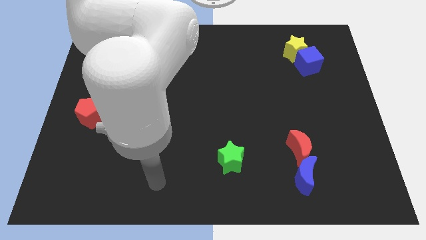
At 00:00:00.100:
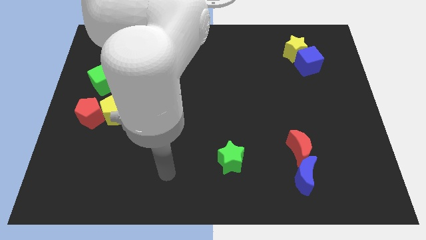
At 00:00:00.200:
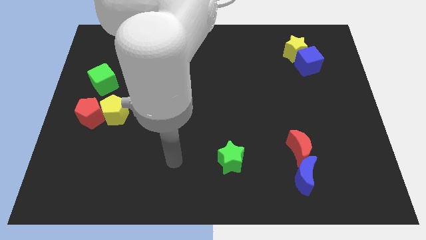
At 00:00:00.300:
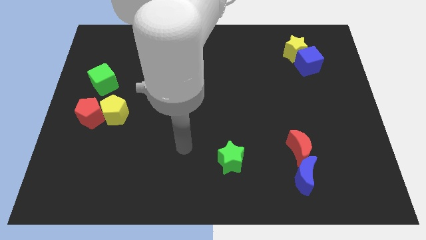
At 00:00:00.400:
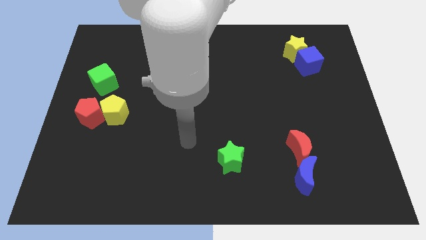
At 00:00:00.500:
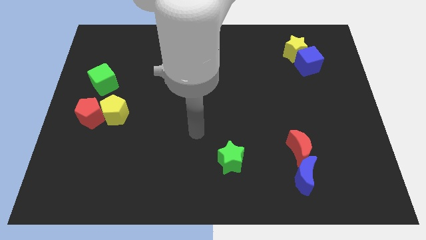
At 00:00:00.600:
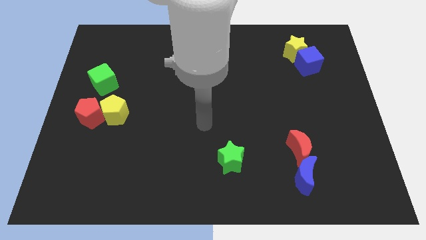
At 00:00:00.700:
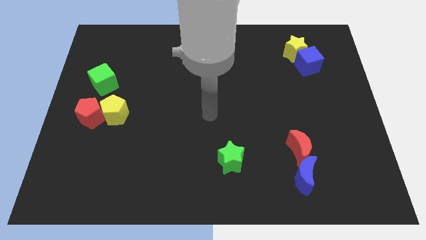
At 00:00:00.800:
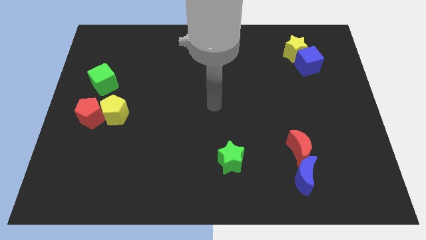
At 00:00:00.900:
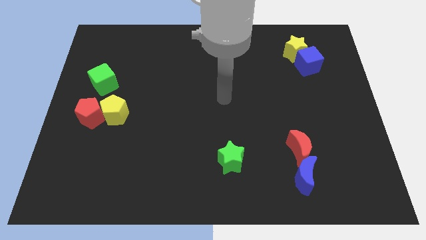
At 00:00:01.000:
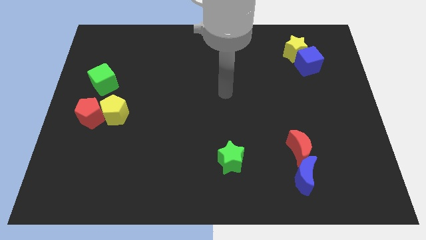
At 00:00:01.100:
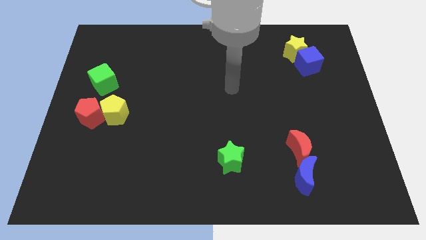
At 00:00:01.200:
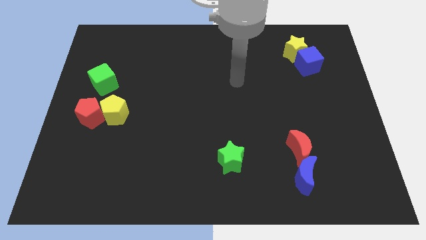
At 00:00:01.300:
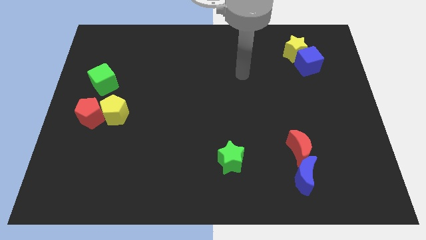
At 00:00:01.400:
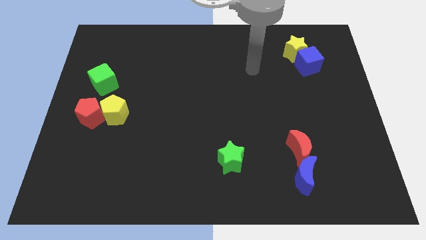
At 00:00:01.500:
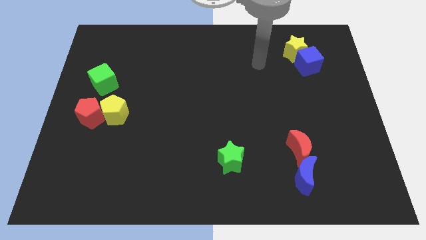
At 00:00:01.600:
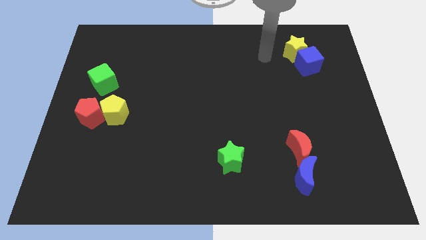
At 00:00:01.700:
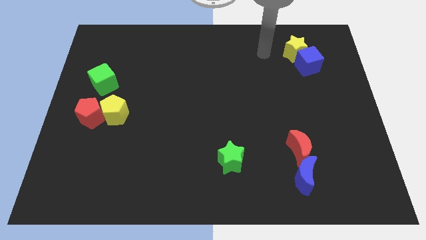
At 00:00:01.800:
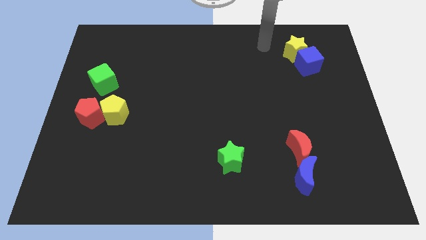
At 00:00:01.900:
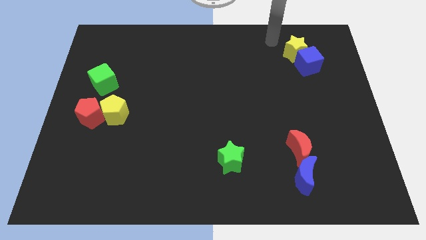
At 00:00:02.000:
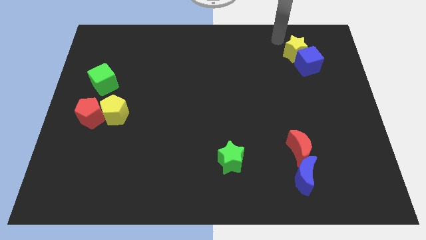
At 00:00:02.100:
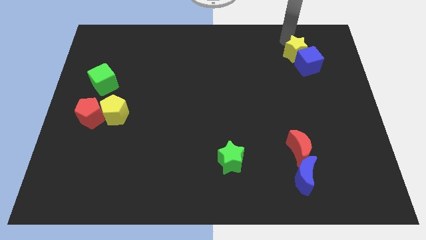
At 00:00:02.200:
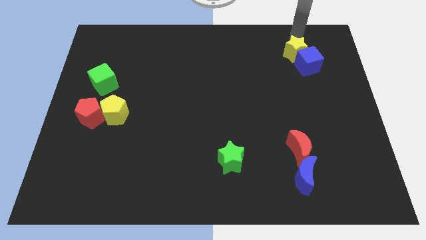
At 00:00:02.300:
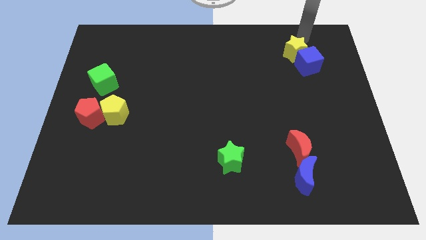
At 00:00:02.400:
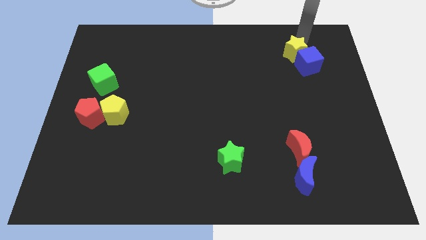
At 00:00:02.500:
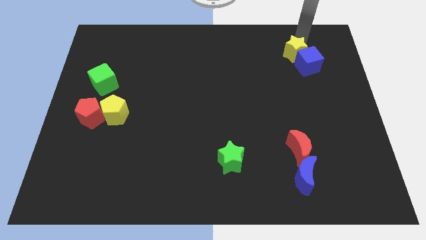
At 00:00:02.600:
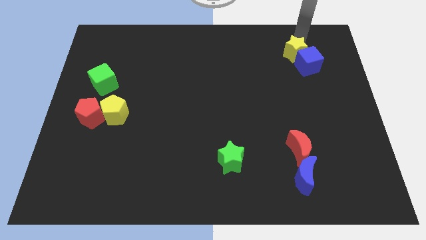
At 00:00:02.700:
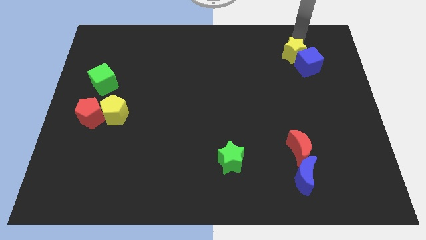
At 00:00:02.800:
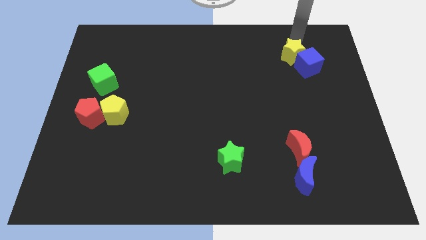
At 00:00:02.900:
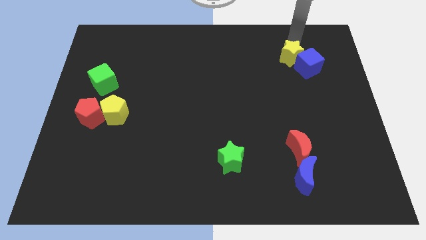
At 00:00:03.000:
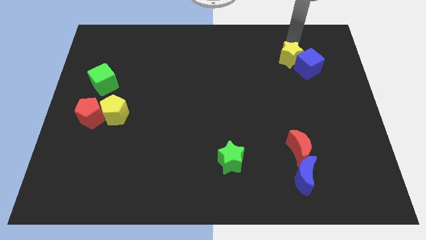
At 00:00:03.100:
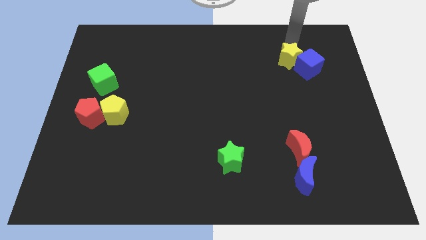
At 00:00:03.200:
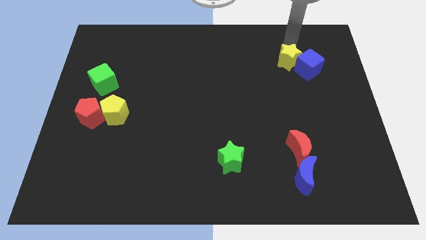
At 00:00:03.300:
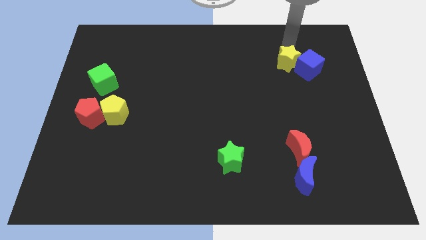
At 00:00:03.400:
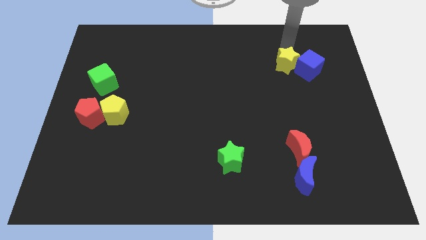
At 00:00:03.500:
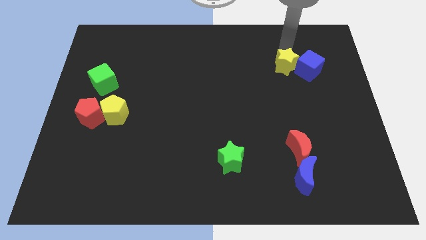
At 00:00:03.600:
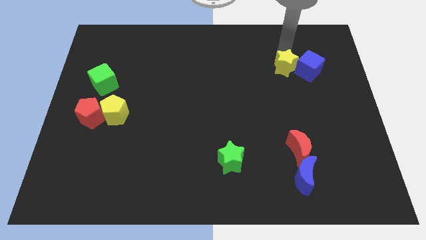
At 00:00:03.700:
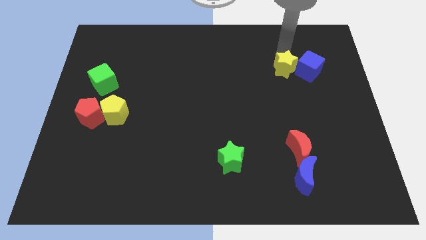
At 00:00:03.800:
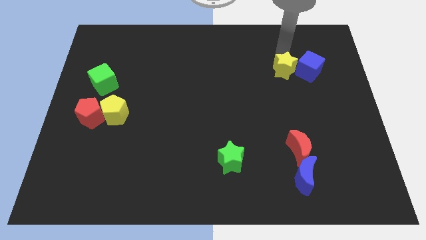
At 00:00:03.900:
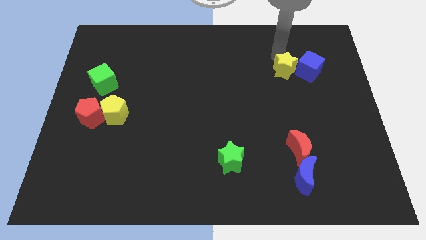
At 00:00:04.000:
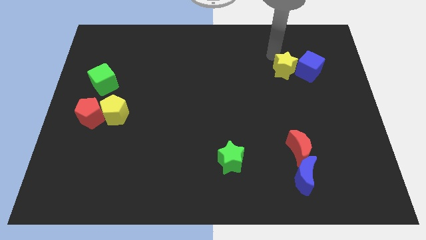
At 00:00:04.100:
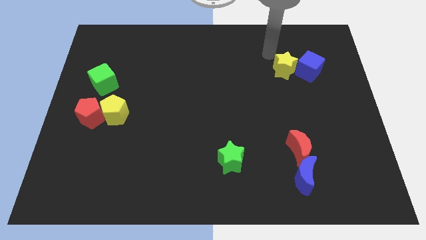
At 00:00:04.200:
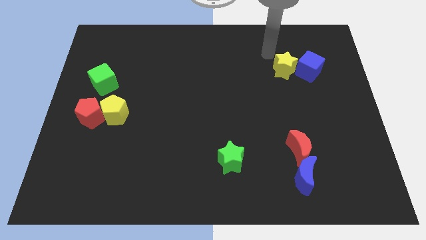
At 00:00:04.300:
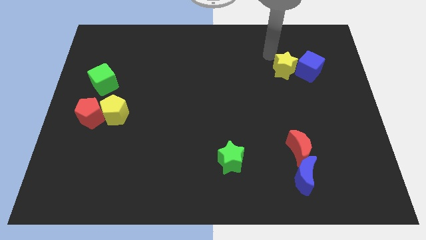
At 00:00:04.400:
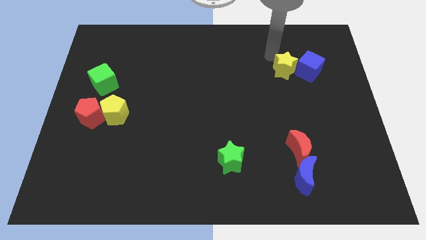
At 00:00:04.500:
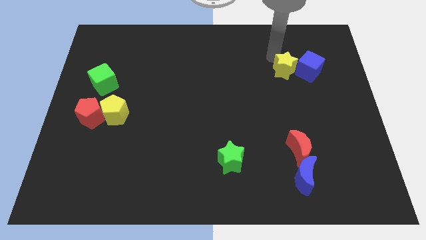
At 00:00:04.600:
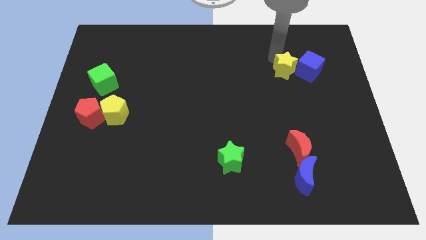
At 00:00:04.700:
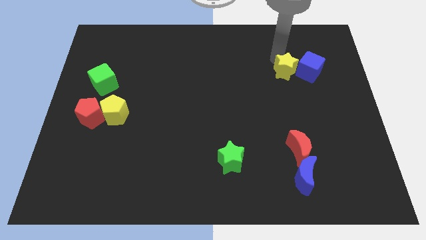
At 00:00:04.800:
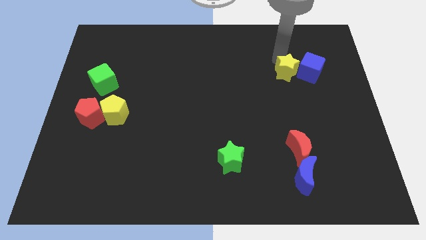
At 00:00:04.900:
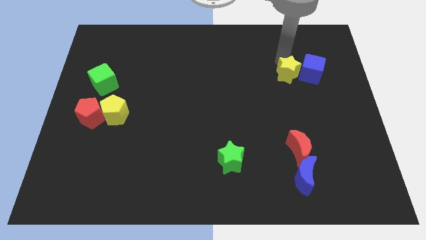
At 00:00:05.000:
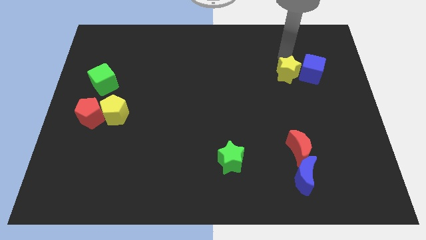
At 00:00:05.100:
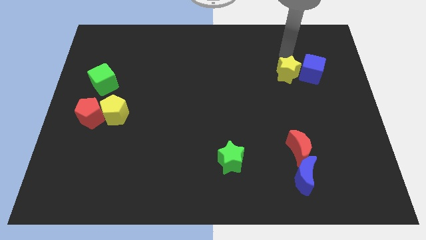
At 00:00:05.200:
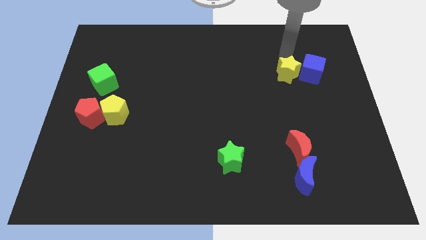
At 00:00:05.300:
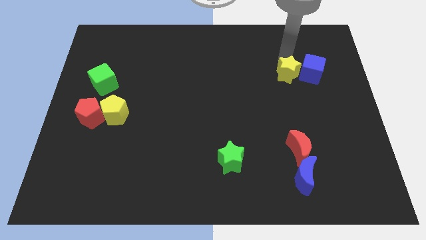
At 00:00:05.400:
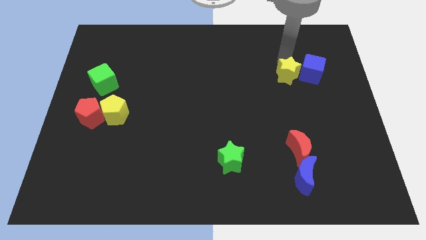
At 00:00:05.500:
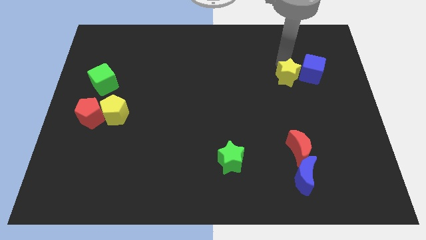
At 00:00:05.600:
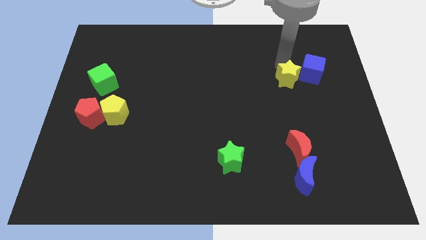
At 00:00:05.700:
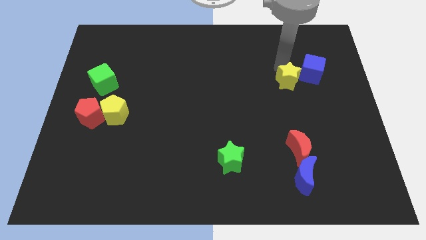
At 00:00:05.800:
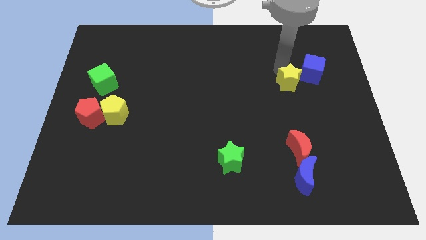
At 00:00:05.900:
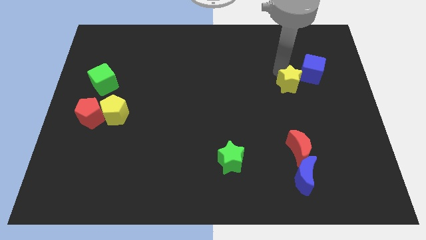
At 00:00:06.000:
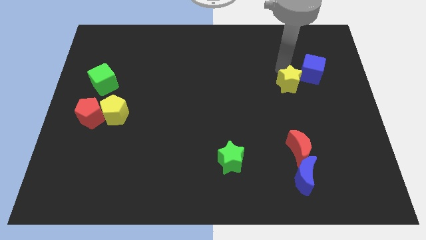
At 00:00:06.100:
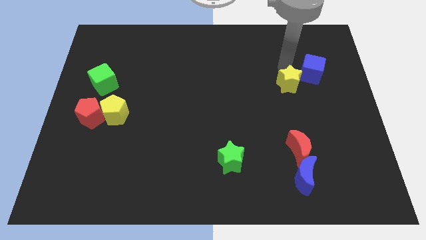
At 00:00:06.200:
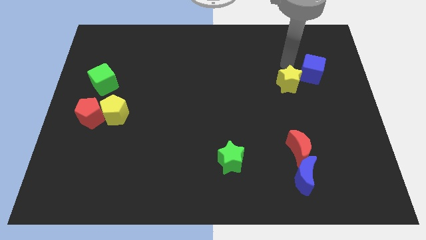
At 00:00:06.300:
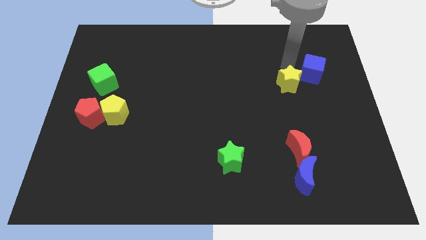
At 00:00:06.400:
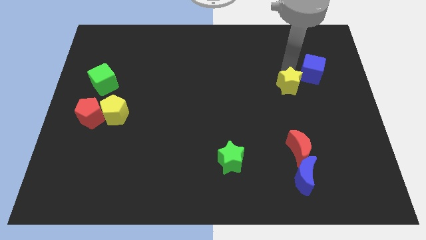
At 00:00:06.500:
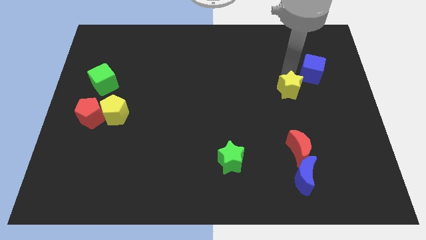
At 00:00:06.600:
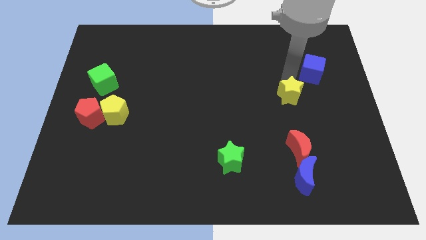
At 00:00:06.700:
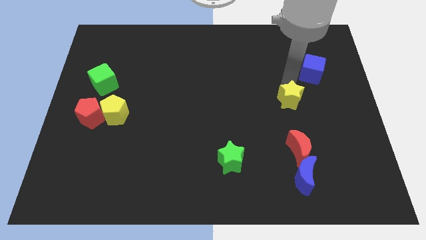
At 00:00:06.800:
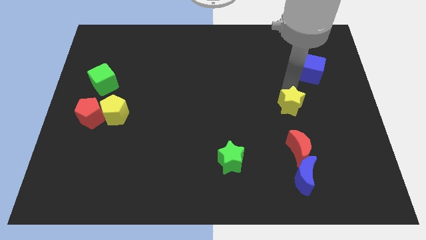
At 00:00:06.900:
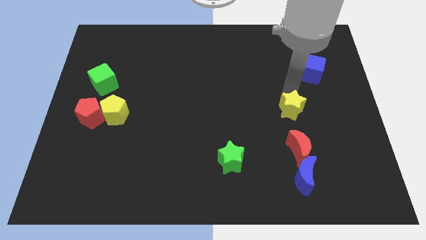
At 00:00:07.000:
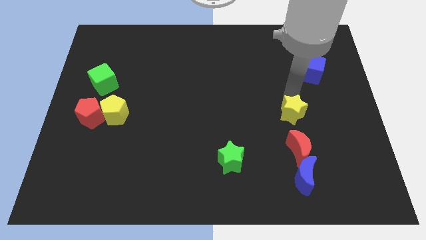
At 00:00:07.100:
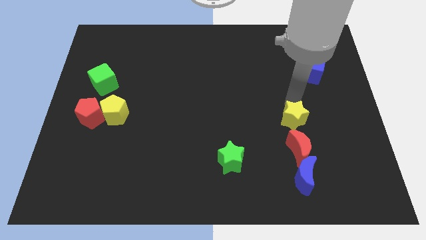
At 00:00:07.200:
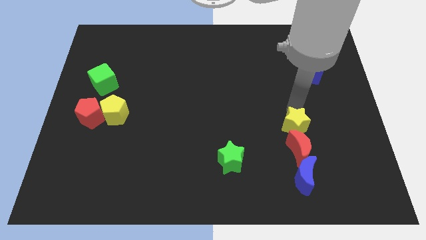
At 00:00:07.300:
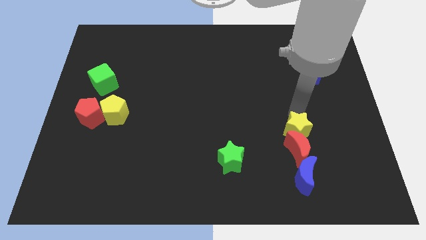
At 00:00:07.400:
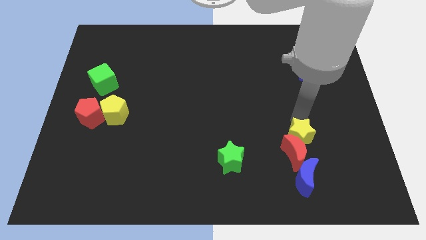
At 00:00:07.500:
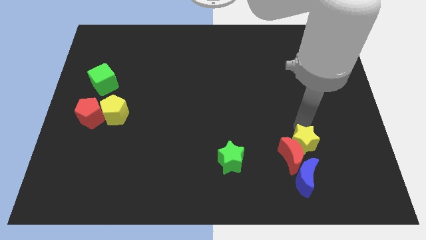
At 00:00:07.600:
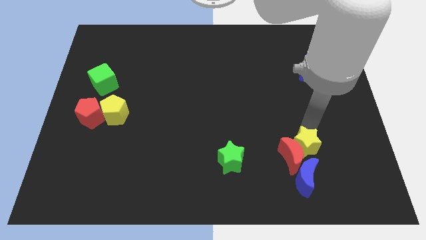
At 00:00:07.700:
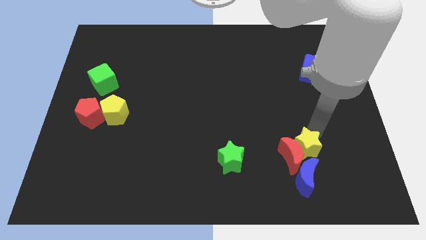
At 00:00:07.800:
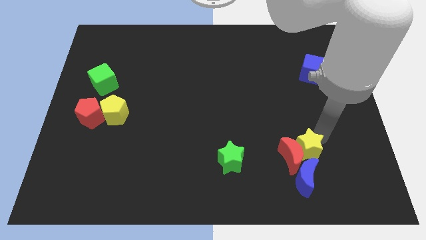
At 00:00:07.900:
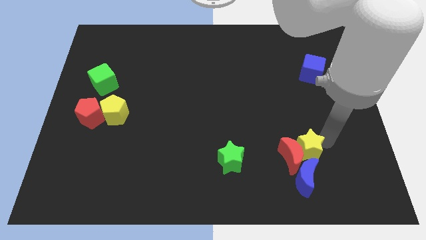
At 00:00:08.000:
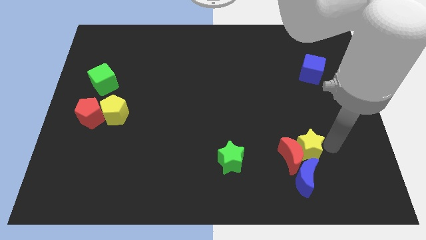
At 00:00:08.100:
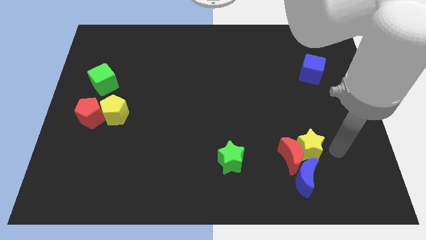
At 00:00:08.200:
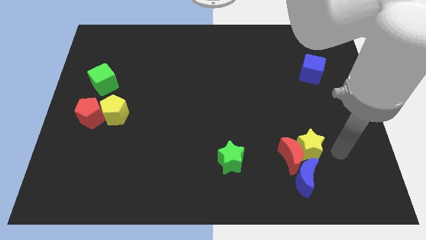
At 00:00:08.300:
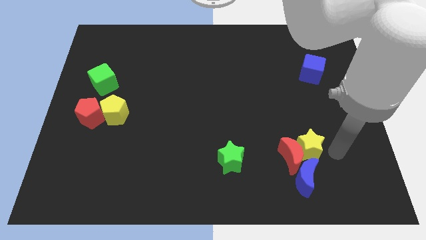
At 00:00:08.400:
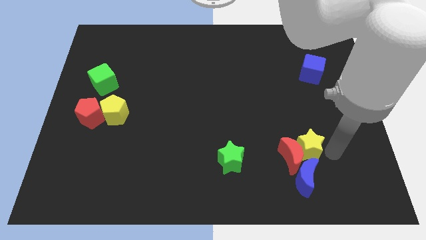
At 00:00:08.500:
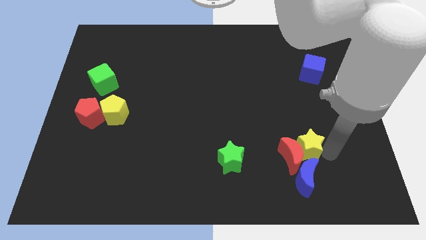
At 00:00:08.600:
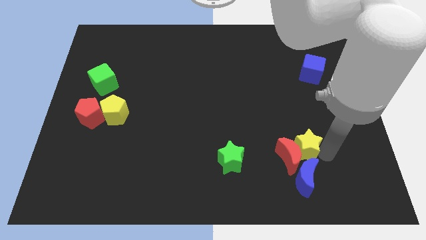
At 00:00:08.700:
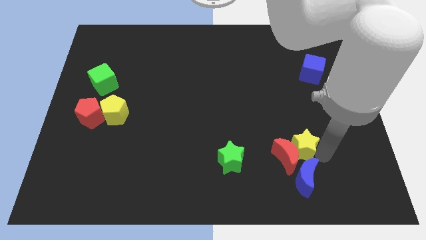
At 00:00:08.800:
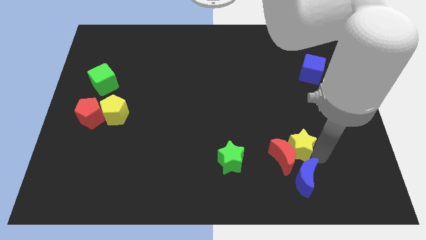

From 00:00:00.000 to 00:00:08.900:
slide the yellow star to the right of the green star
